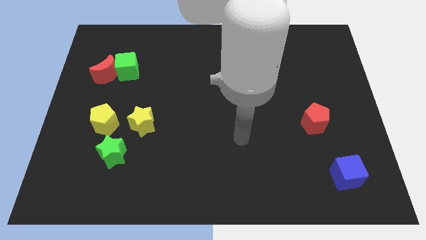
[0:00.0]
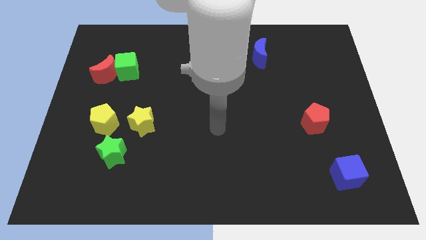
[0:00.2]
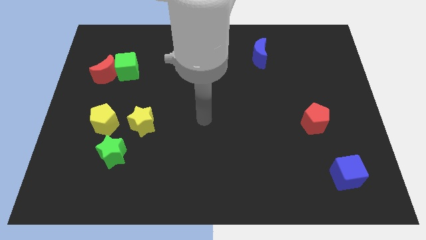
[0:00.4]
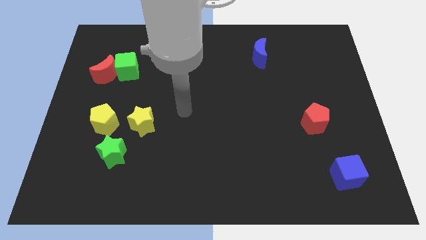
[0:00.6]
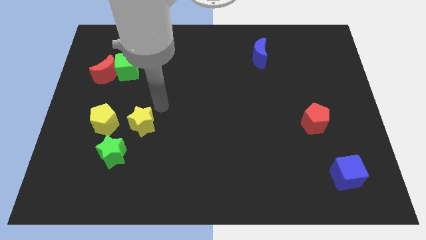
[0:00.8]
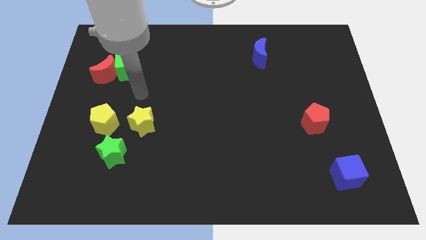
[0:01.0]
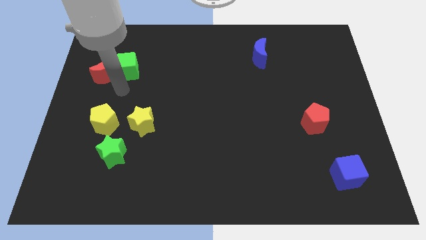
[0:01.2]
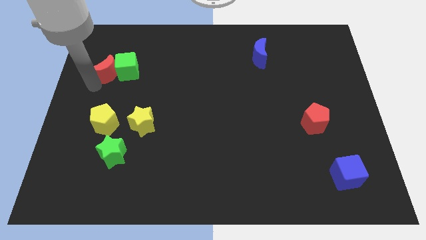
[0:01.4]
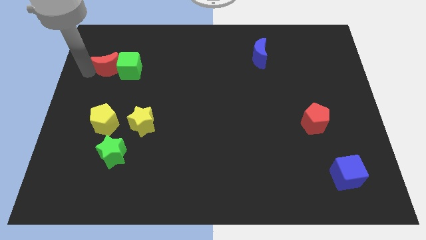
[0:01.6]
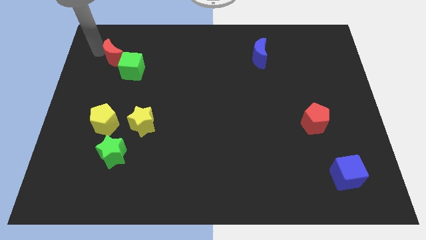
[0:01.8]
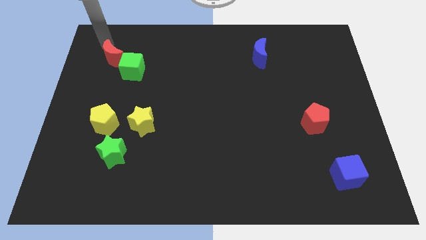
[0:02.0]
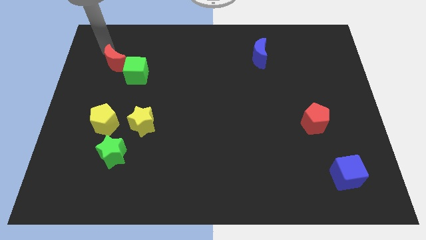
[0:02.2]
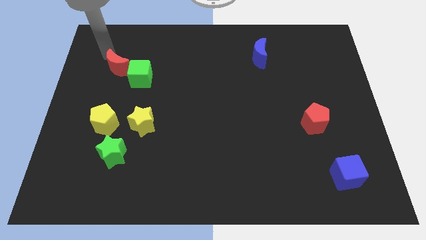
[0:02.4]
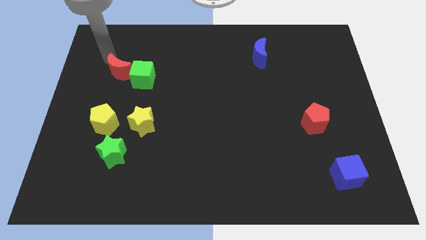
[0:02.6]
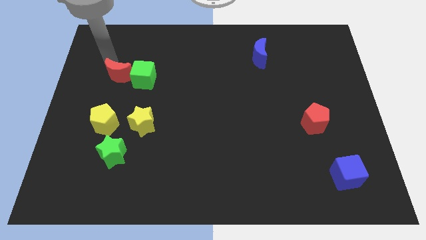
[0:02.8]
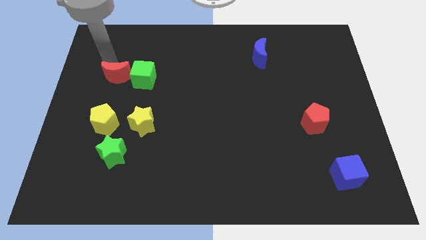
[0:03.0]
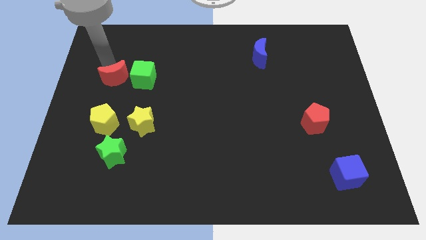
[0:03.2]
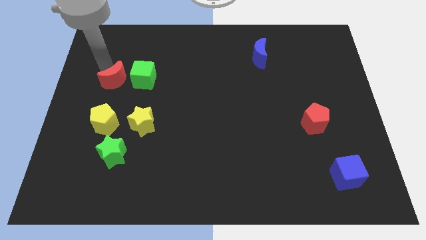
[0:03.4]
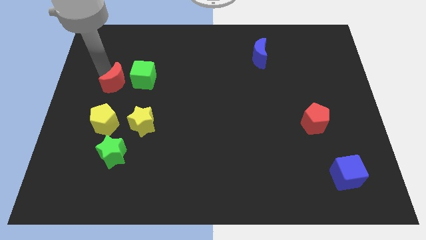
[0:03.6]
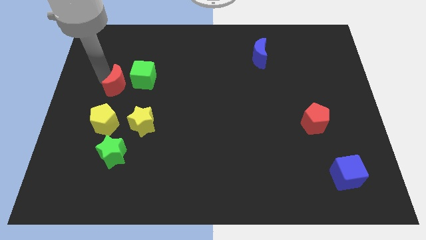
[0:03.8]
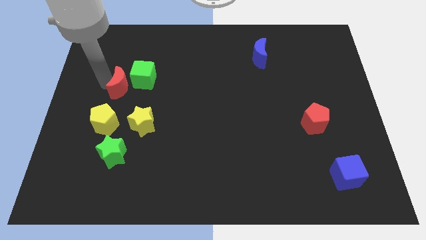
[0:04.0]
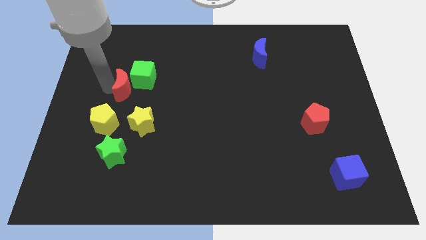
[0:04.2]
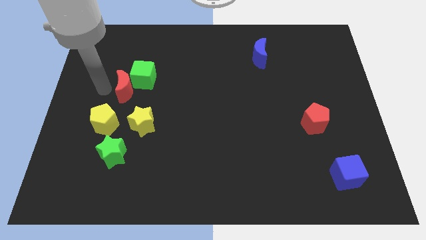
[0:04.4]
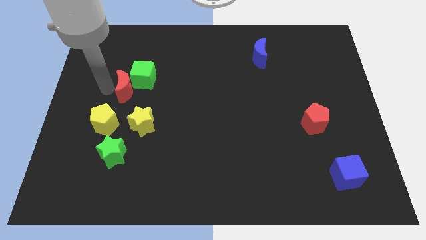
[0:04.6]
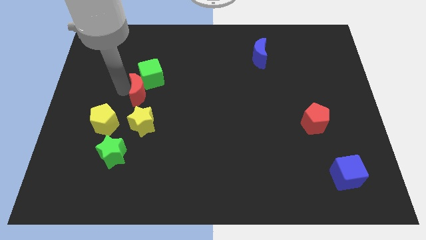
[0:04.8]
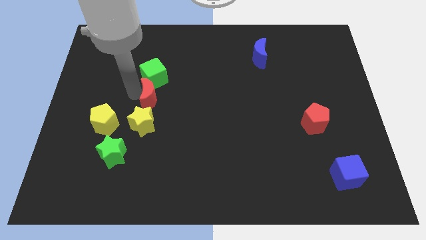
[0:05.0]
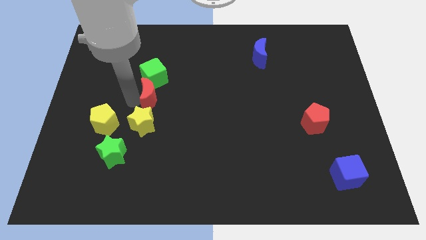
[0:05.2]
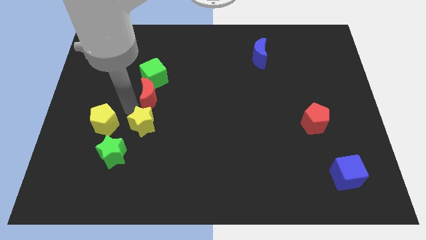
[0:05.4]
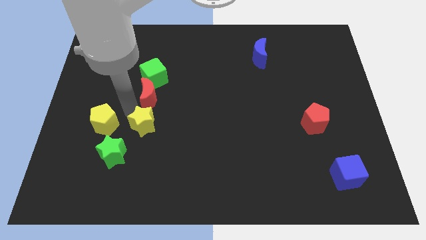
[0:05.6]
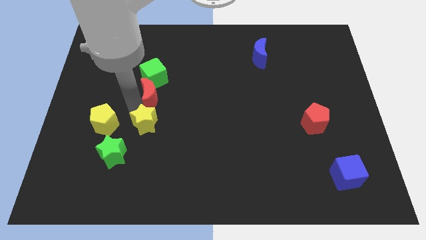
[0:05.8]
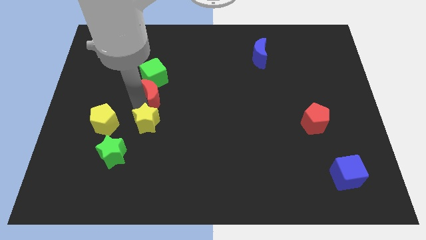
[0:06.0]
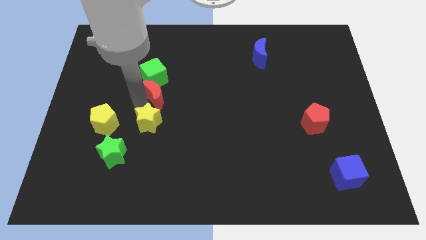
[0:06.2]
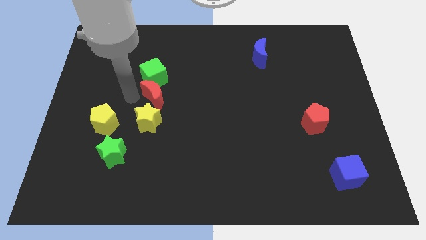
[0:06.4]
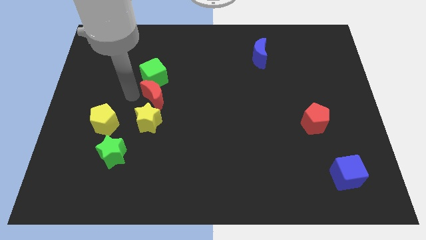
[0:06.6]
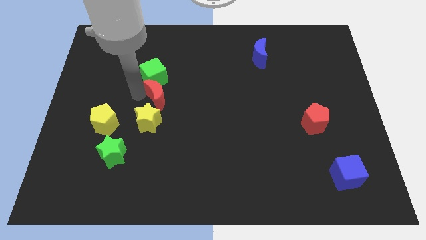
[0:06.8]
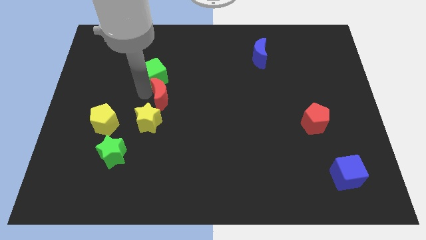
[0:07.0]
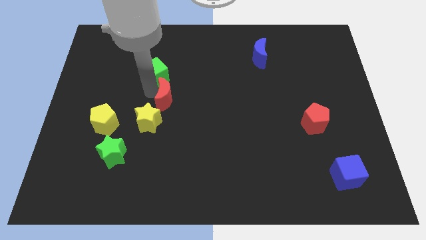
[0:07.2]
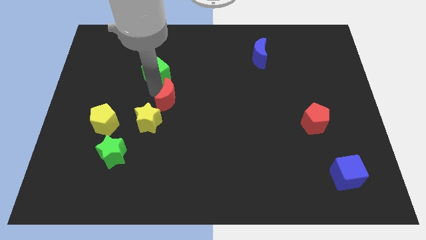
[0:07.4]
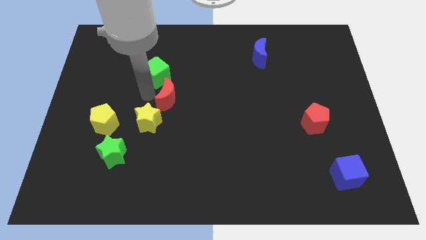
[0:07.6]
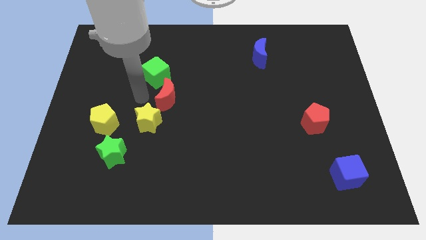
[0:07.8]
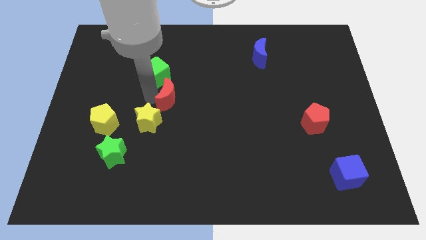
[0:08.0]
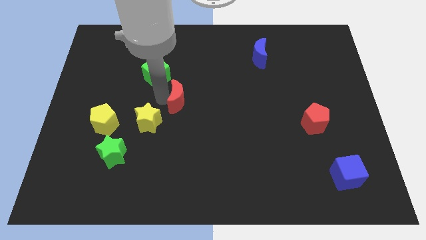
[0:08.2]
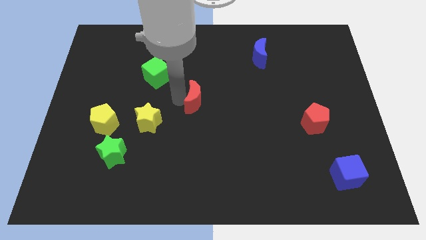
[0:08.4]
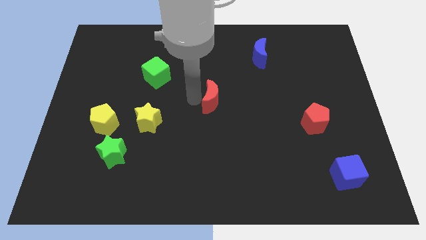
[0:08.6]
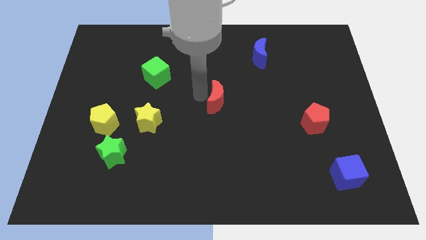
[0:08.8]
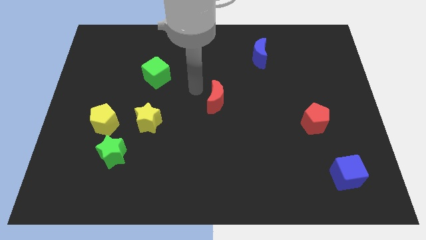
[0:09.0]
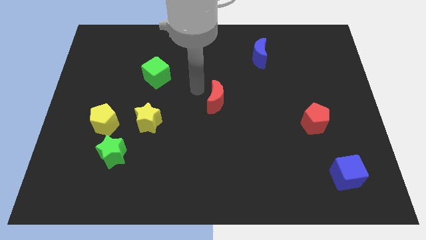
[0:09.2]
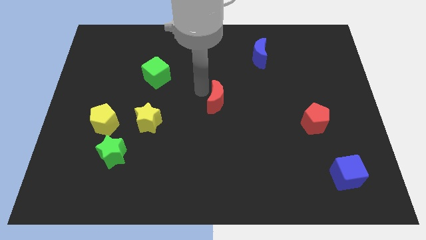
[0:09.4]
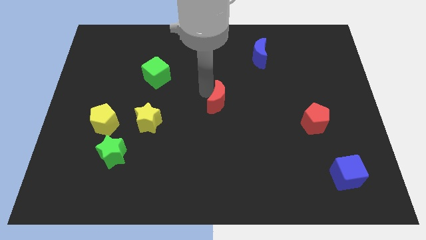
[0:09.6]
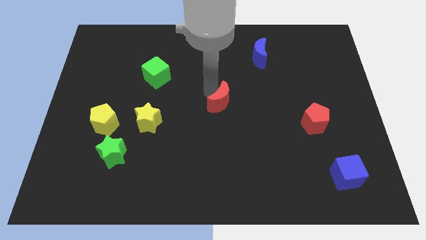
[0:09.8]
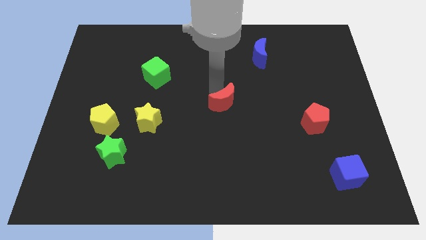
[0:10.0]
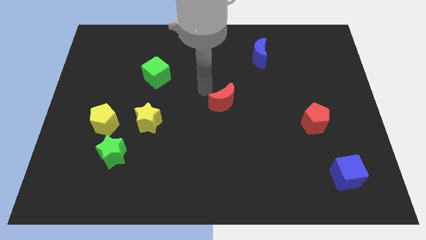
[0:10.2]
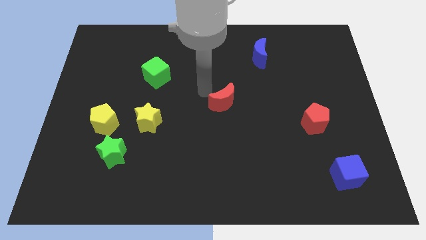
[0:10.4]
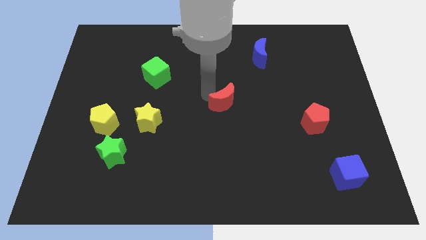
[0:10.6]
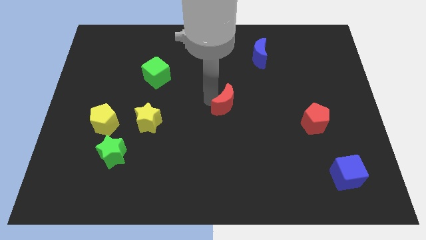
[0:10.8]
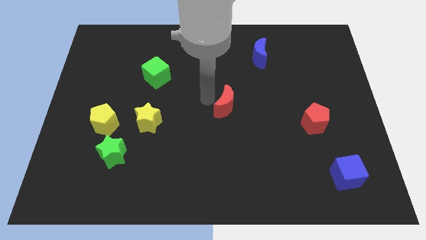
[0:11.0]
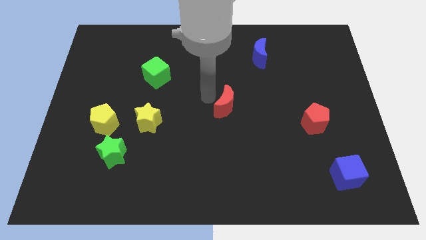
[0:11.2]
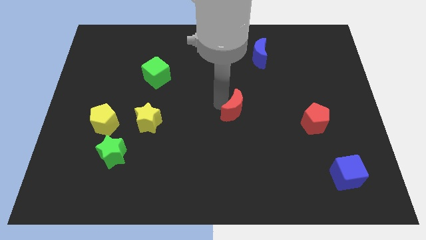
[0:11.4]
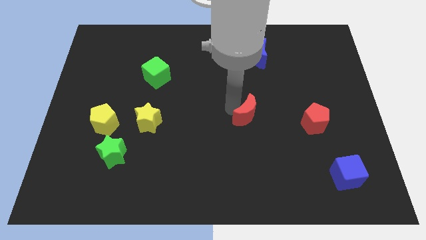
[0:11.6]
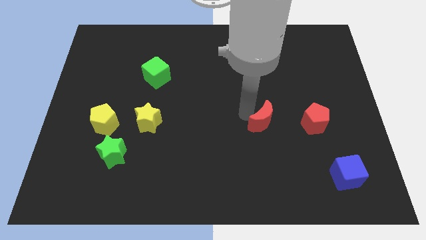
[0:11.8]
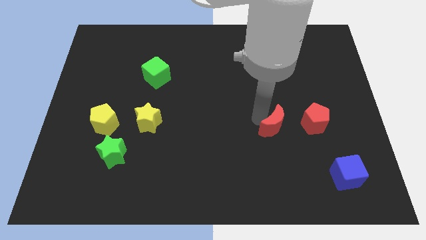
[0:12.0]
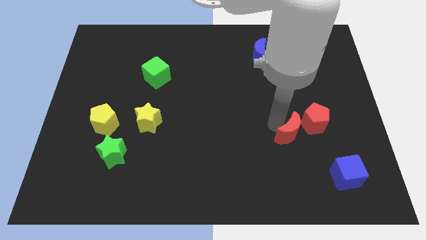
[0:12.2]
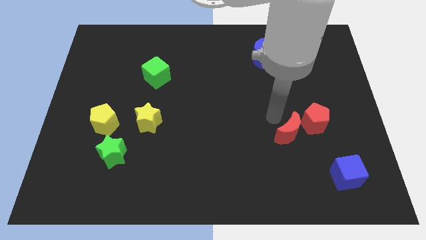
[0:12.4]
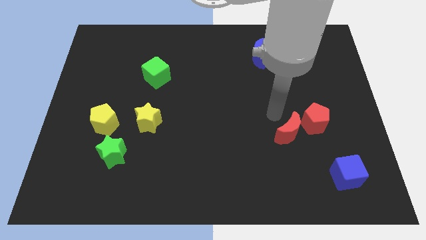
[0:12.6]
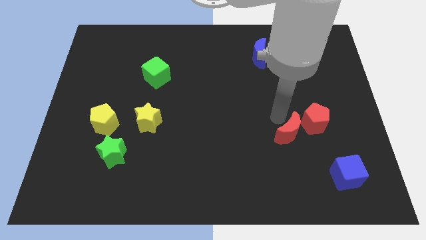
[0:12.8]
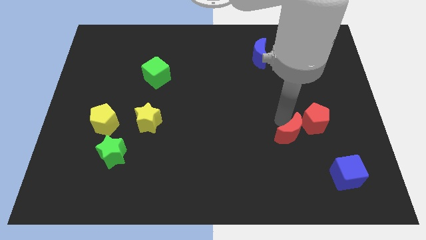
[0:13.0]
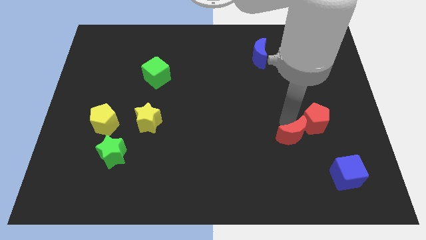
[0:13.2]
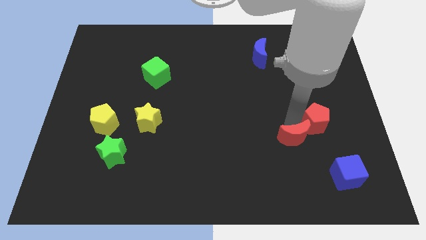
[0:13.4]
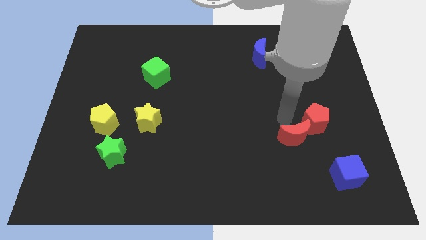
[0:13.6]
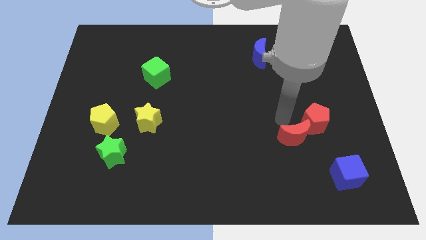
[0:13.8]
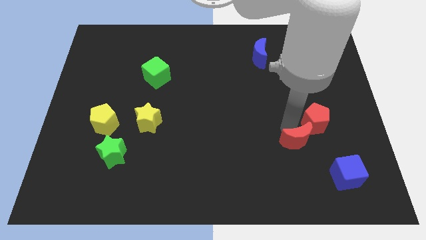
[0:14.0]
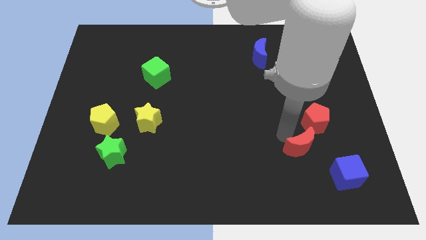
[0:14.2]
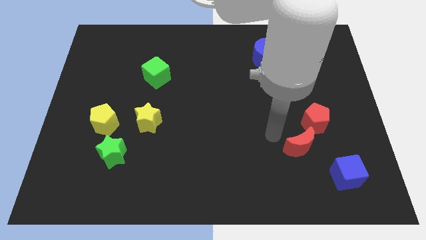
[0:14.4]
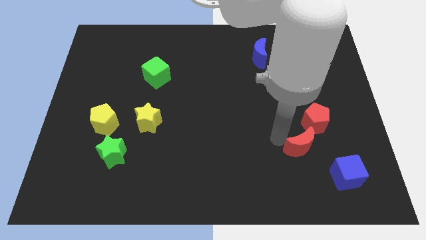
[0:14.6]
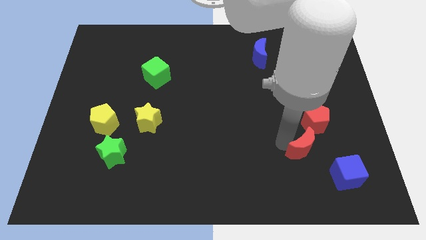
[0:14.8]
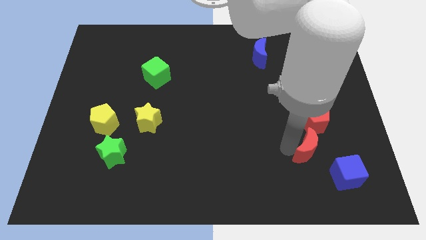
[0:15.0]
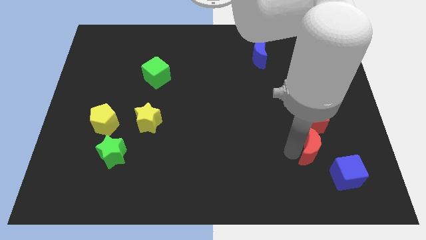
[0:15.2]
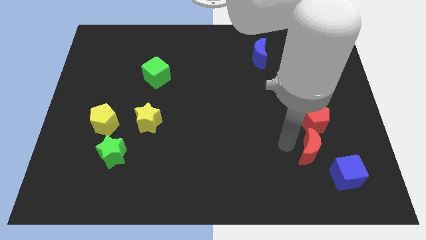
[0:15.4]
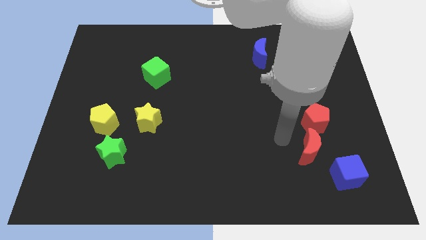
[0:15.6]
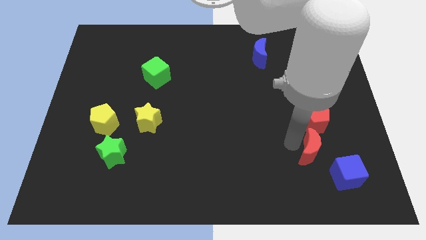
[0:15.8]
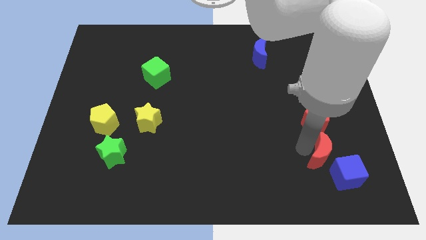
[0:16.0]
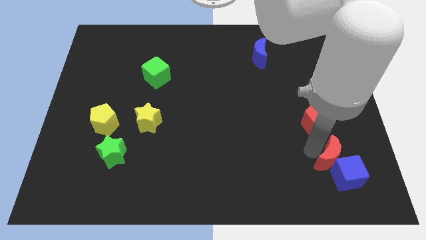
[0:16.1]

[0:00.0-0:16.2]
push the red moon to the blue cube
